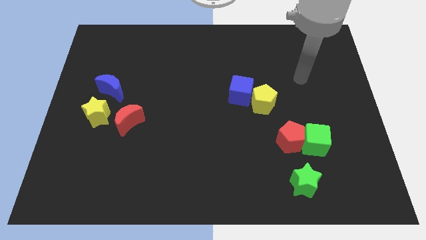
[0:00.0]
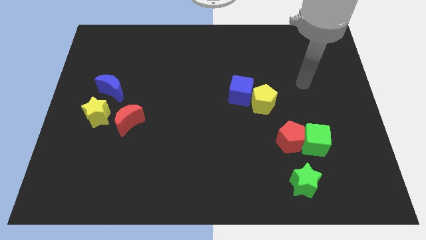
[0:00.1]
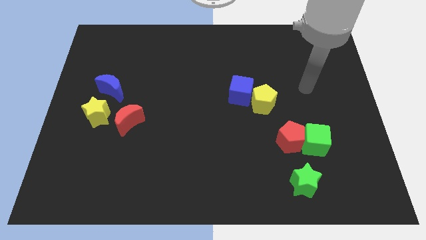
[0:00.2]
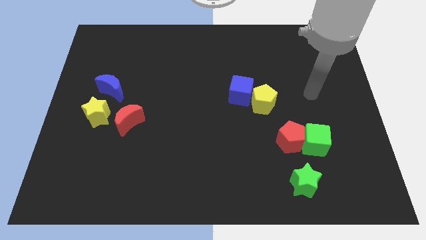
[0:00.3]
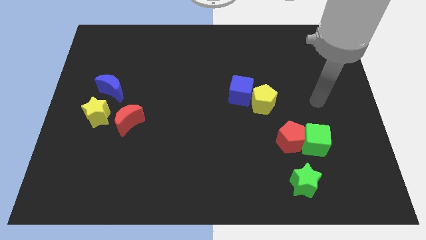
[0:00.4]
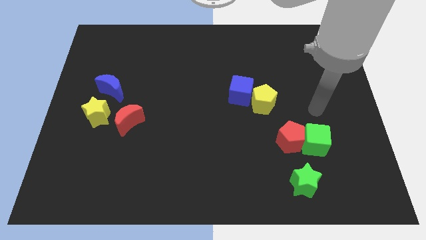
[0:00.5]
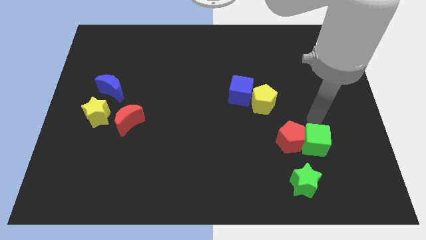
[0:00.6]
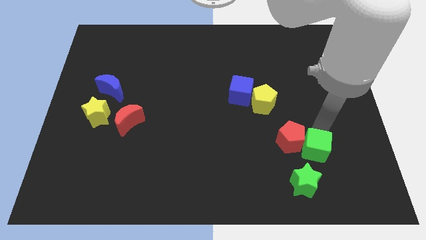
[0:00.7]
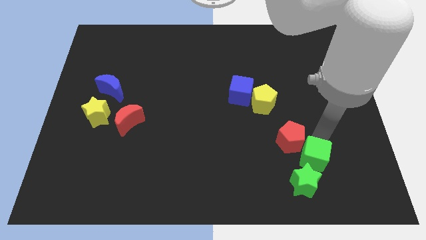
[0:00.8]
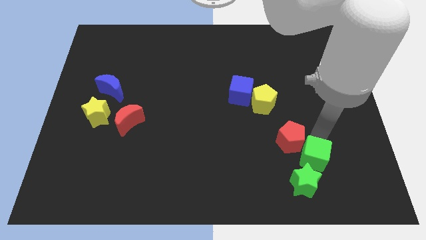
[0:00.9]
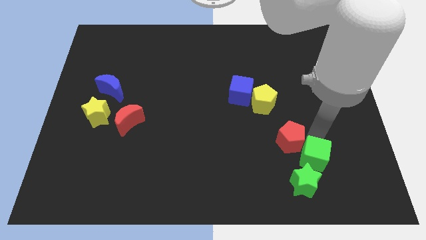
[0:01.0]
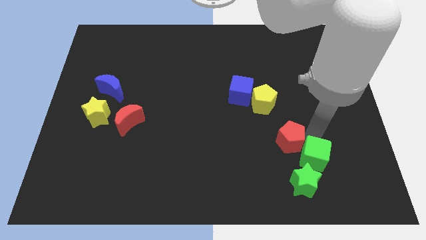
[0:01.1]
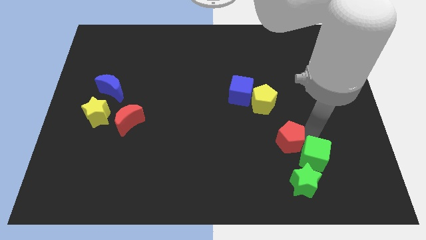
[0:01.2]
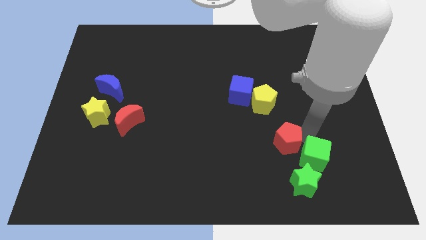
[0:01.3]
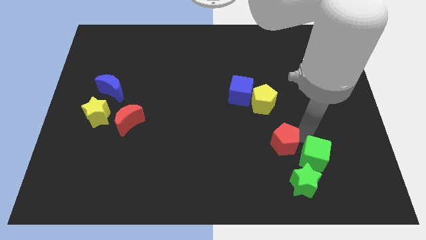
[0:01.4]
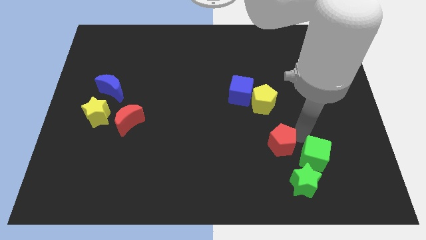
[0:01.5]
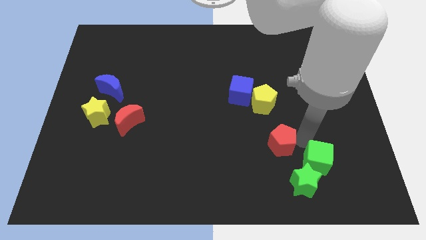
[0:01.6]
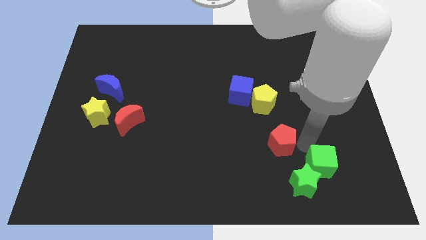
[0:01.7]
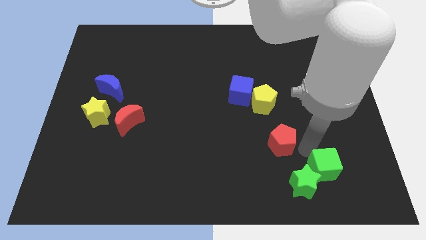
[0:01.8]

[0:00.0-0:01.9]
separate the red pentagon from the green cube

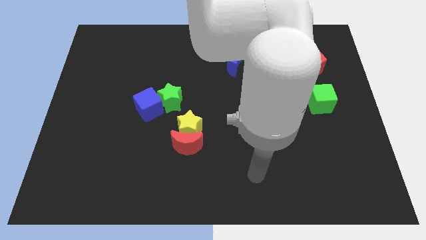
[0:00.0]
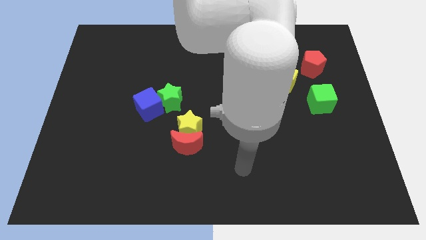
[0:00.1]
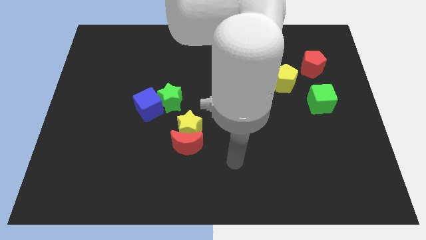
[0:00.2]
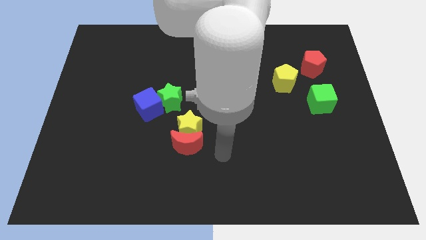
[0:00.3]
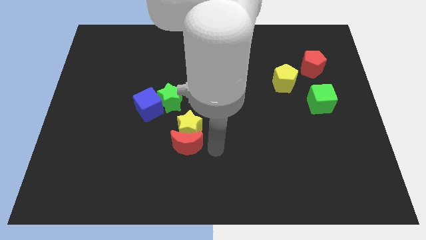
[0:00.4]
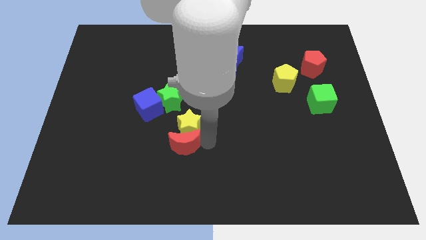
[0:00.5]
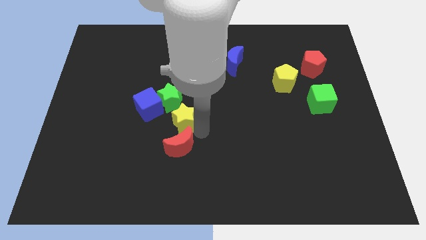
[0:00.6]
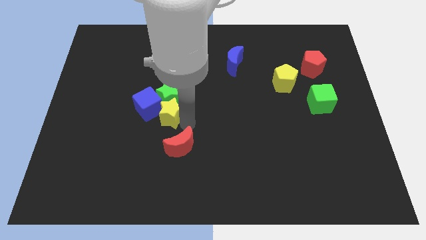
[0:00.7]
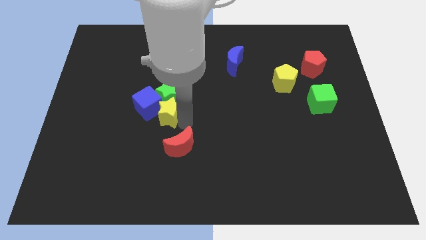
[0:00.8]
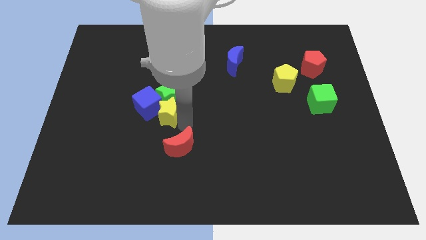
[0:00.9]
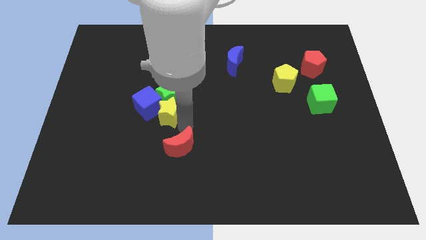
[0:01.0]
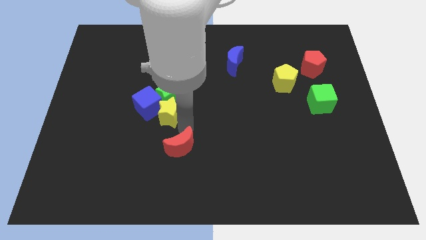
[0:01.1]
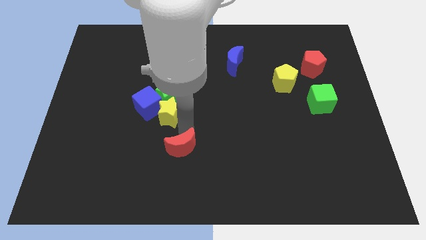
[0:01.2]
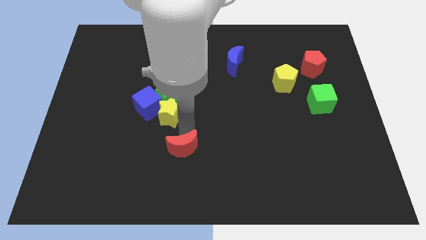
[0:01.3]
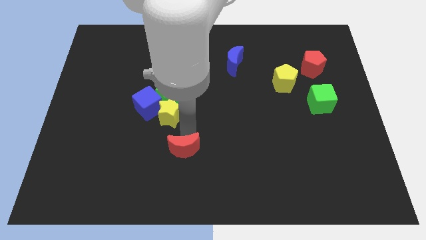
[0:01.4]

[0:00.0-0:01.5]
separate the red moon from the yellow star

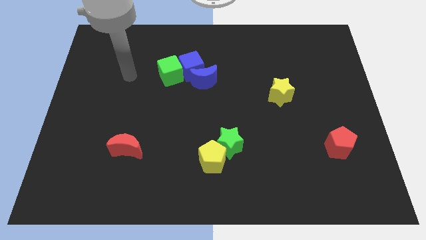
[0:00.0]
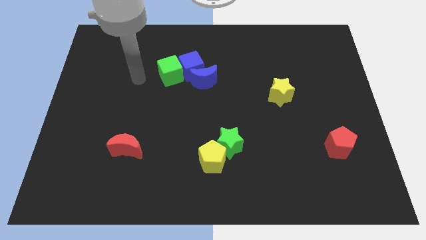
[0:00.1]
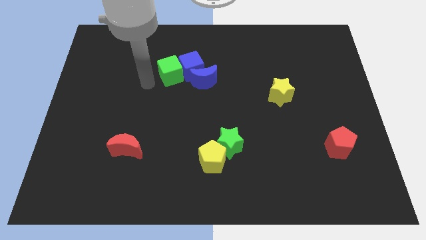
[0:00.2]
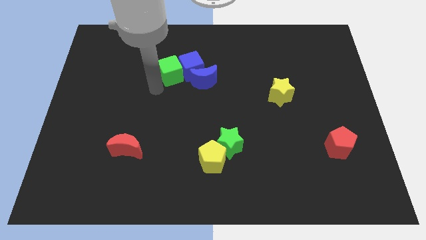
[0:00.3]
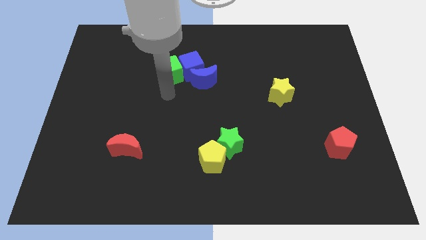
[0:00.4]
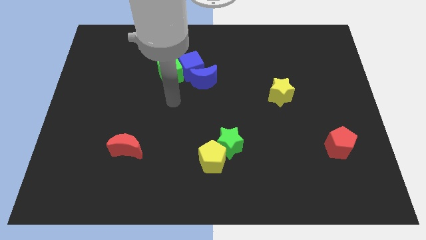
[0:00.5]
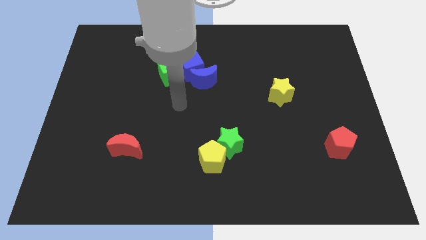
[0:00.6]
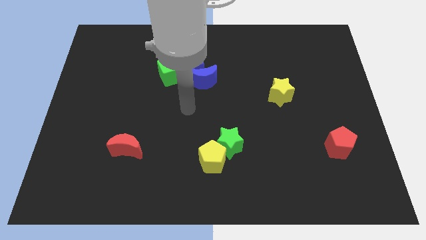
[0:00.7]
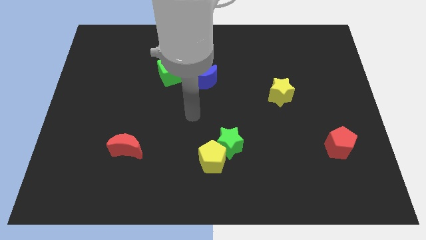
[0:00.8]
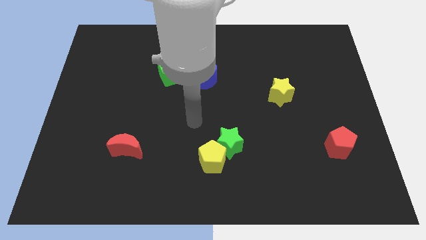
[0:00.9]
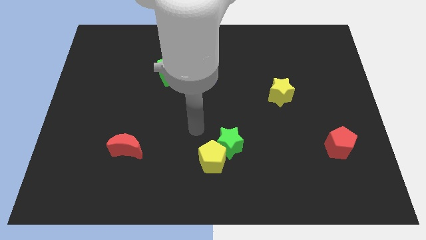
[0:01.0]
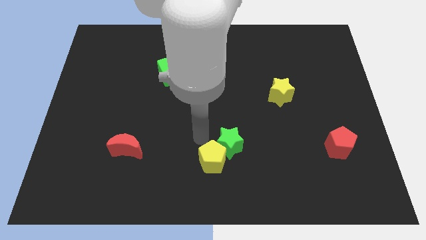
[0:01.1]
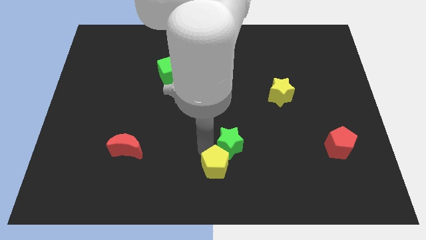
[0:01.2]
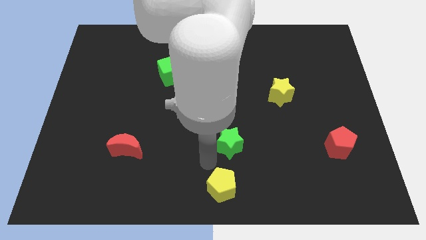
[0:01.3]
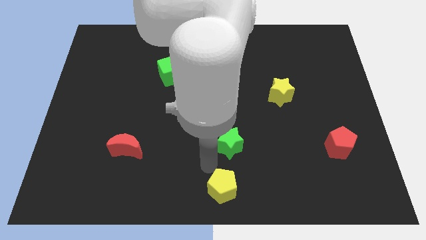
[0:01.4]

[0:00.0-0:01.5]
move the green star away from the yellow pentagon

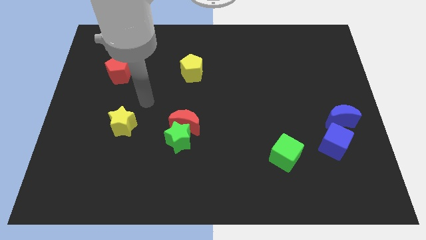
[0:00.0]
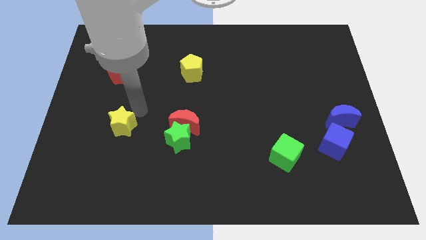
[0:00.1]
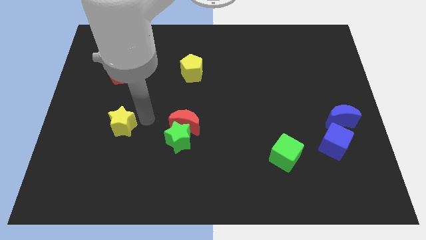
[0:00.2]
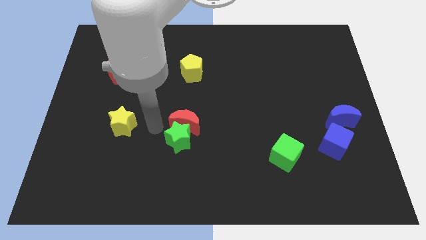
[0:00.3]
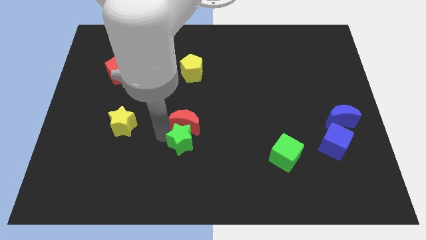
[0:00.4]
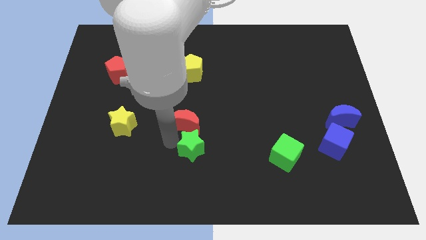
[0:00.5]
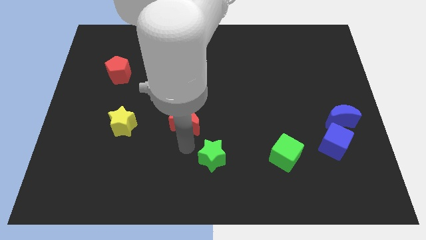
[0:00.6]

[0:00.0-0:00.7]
pull the red moon apart from the green star

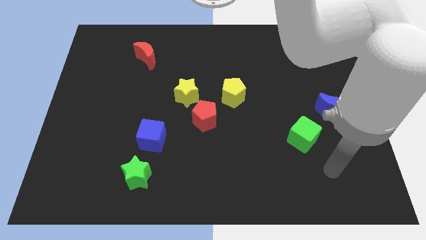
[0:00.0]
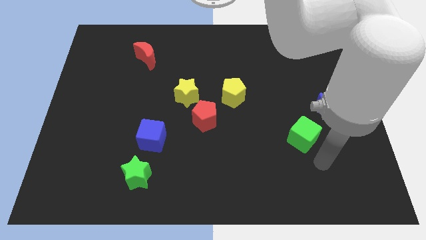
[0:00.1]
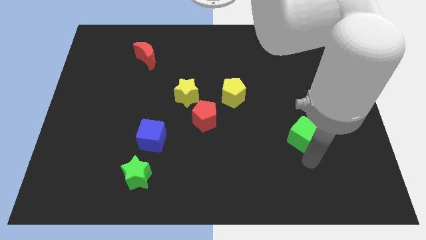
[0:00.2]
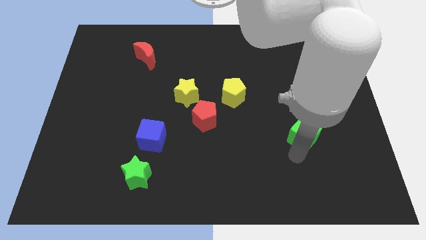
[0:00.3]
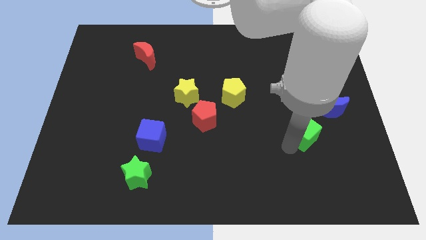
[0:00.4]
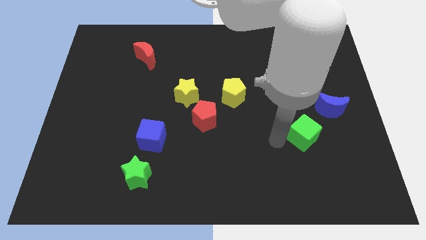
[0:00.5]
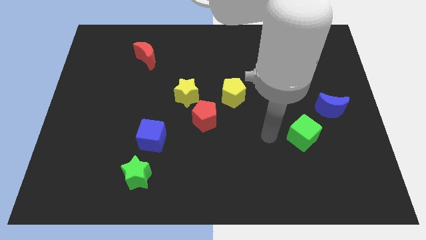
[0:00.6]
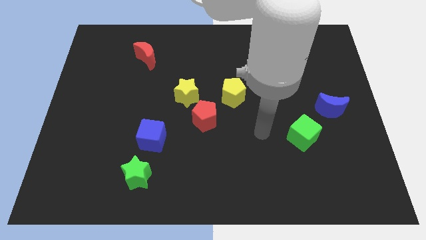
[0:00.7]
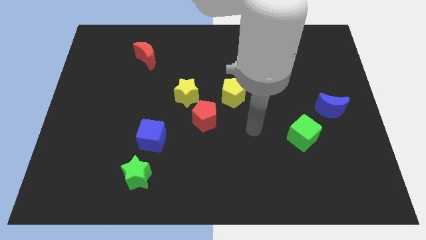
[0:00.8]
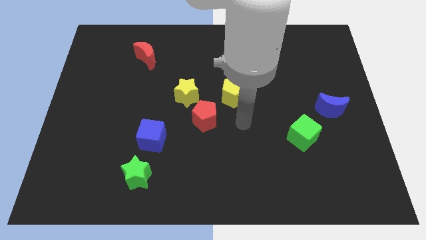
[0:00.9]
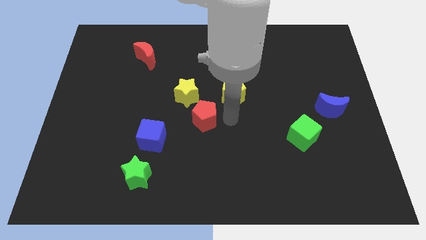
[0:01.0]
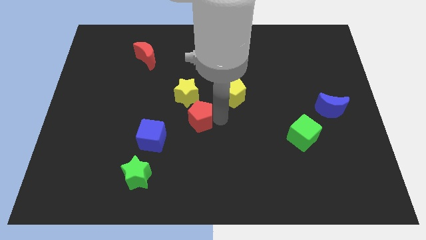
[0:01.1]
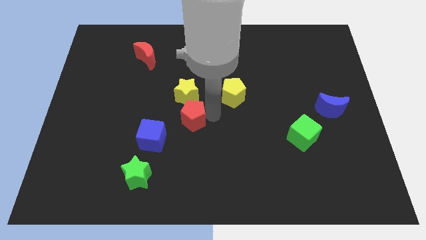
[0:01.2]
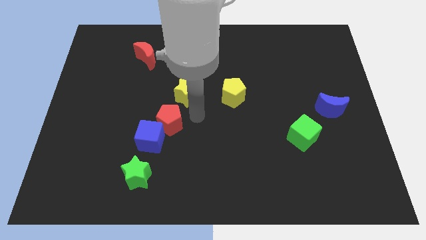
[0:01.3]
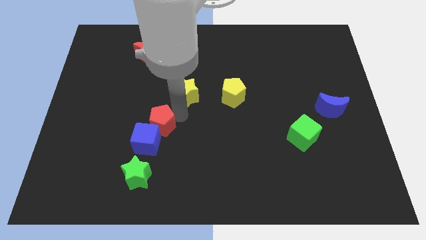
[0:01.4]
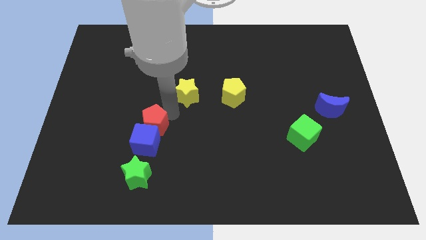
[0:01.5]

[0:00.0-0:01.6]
move the yellow star away from the red pentagon

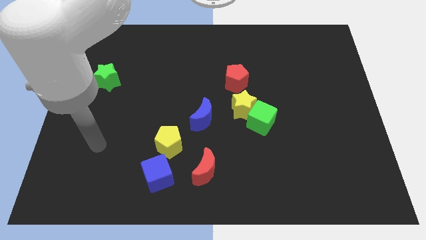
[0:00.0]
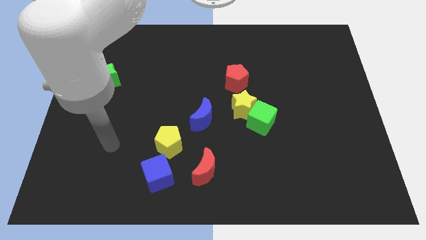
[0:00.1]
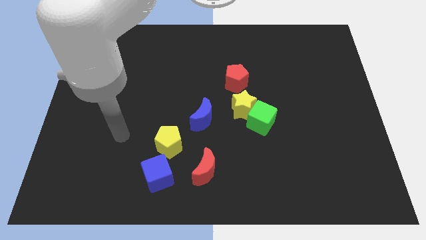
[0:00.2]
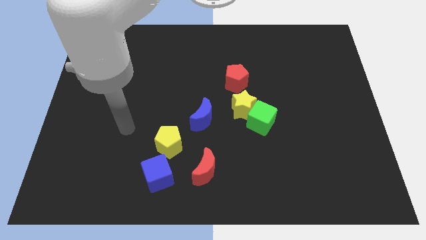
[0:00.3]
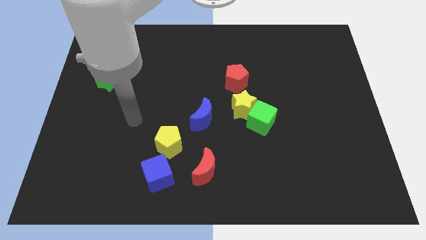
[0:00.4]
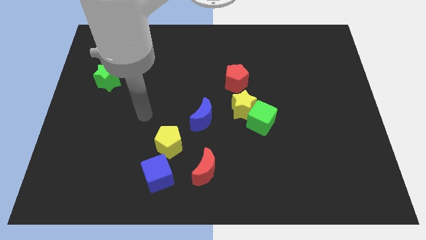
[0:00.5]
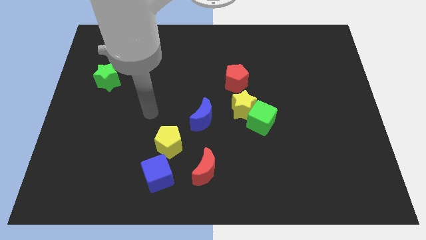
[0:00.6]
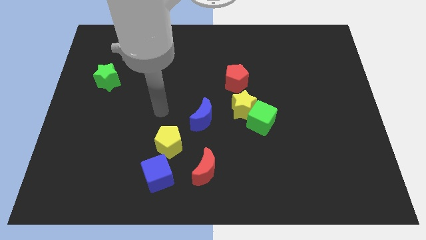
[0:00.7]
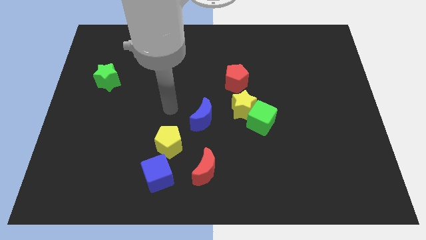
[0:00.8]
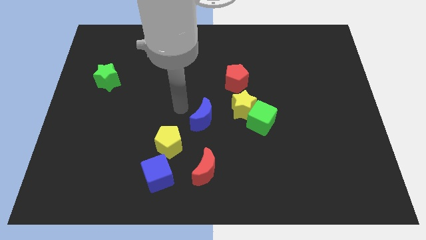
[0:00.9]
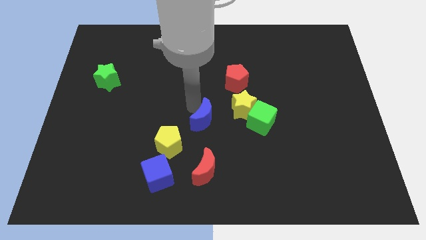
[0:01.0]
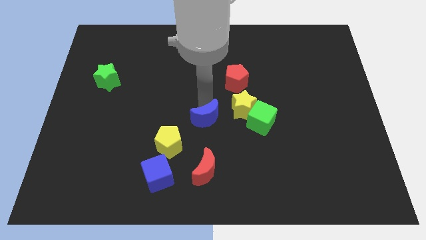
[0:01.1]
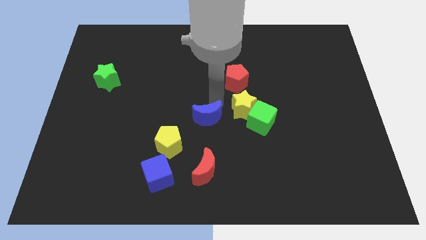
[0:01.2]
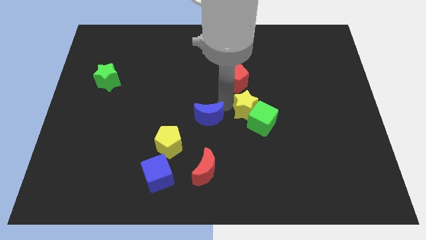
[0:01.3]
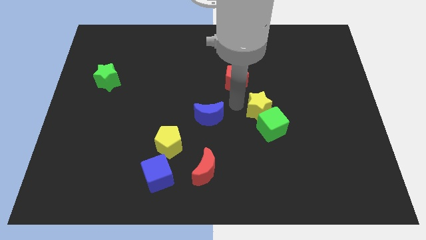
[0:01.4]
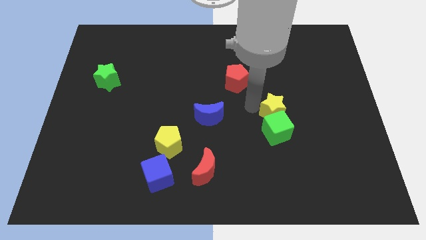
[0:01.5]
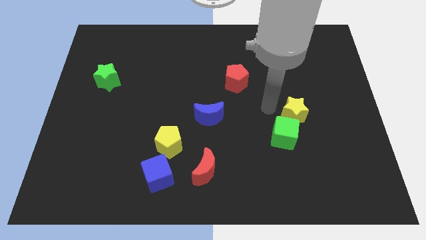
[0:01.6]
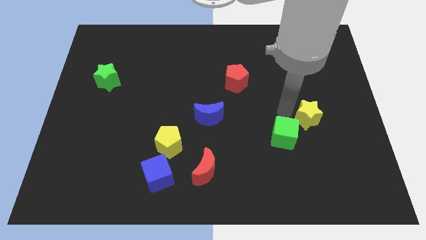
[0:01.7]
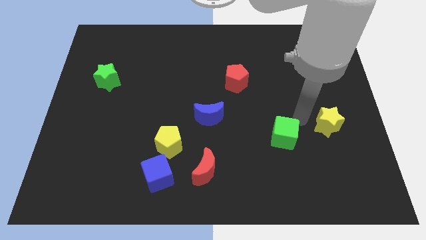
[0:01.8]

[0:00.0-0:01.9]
separate the green cube from the yellow star

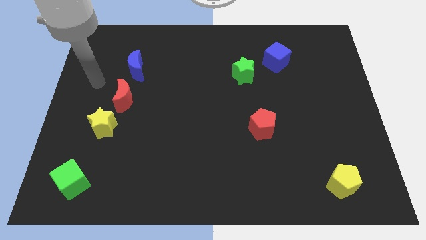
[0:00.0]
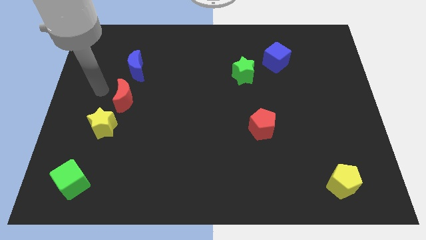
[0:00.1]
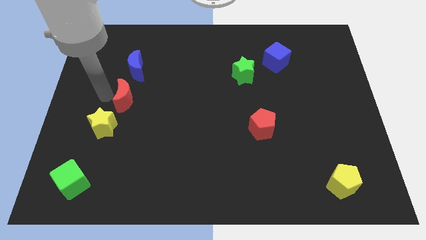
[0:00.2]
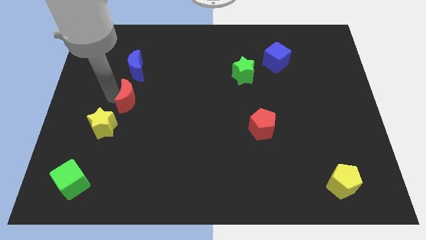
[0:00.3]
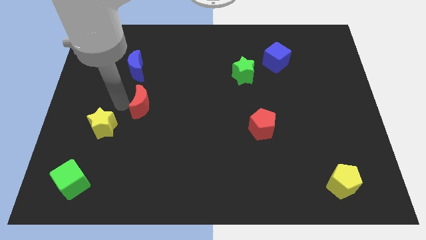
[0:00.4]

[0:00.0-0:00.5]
move the yellow star away from the red moon
